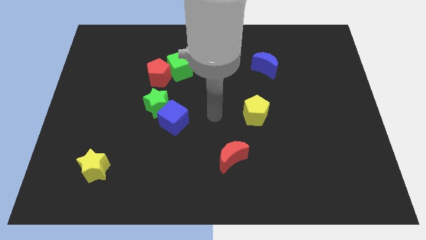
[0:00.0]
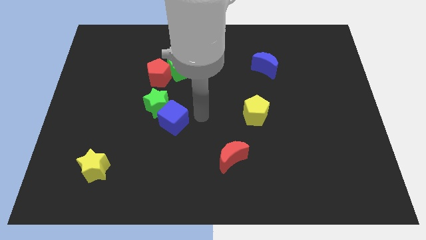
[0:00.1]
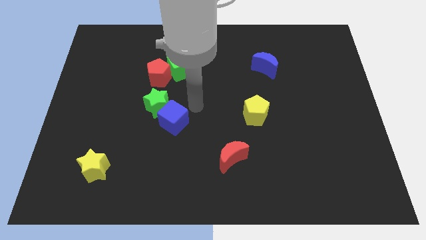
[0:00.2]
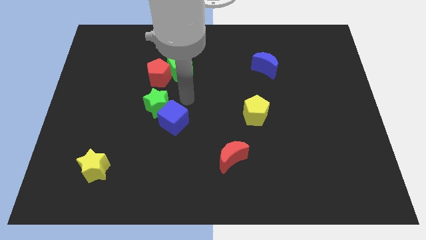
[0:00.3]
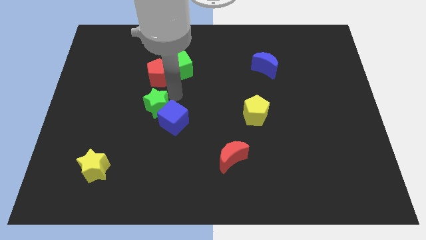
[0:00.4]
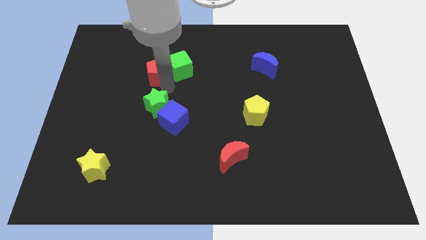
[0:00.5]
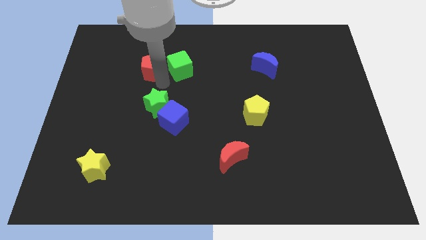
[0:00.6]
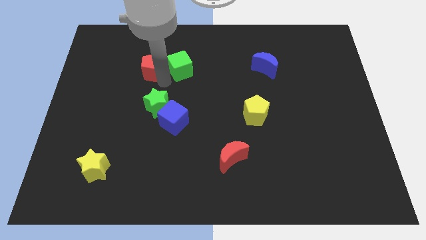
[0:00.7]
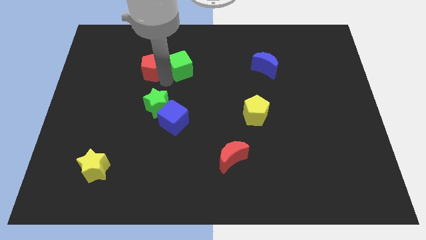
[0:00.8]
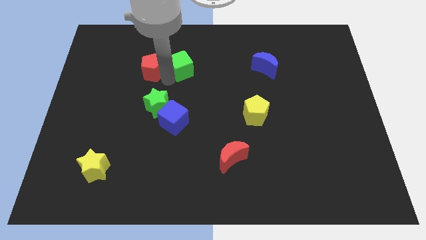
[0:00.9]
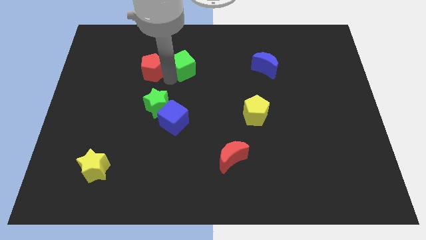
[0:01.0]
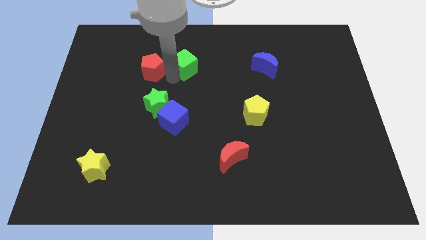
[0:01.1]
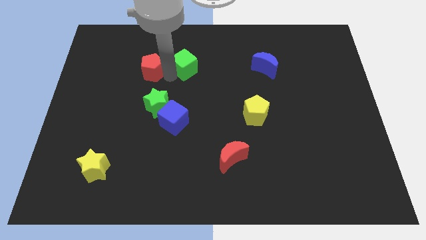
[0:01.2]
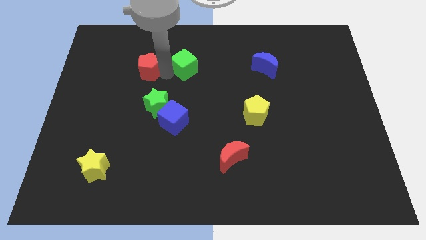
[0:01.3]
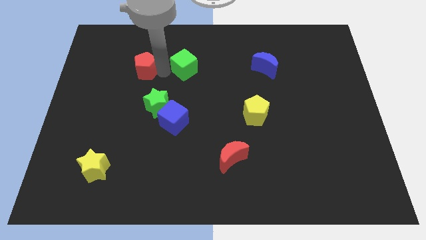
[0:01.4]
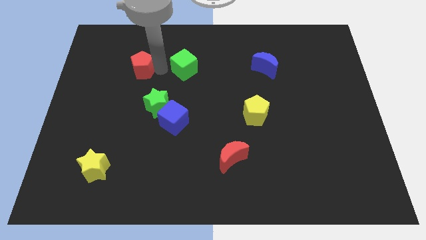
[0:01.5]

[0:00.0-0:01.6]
pull the green cube apart from the red pentagon

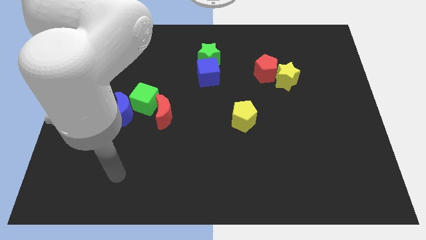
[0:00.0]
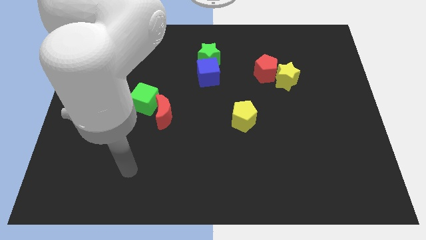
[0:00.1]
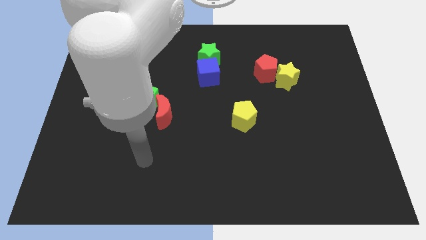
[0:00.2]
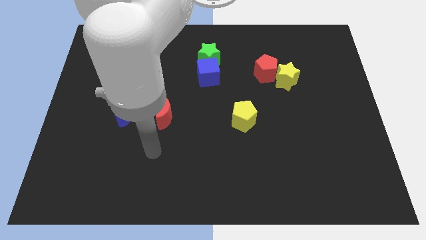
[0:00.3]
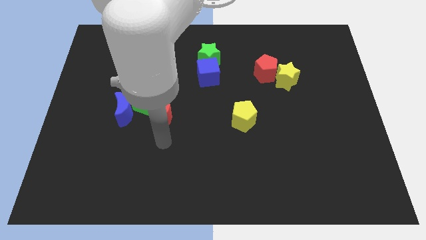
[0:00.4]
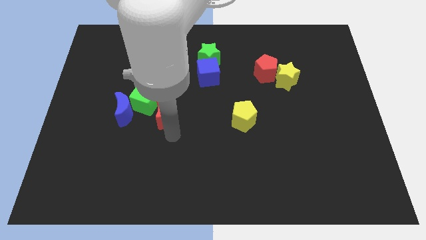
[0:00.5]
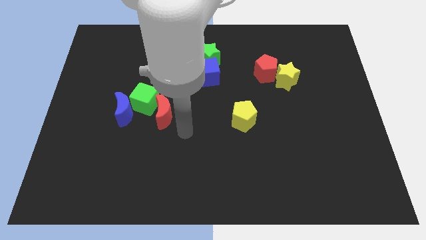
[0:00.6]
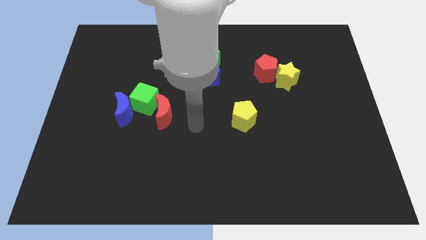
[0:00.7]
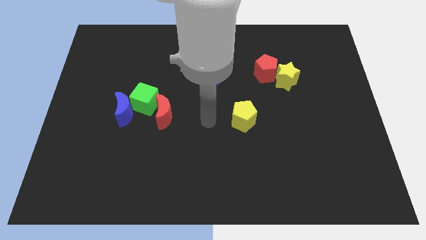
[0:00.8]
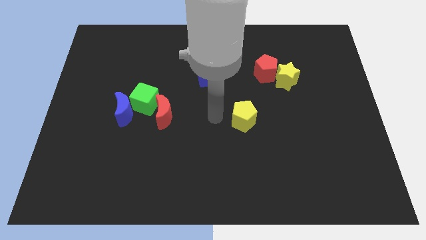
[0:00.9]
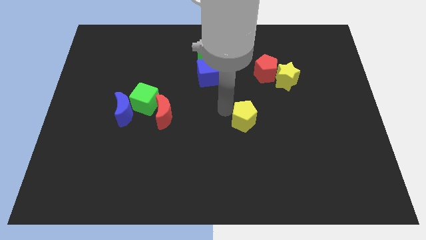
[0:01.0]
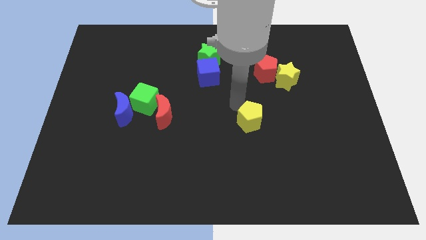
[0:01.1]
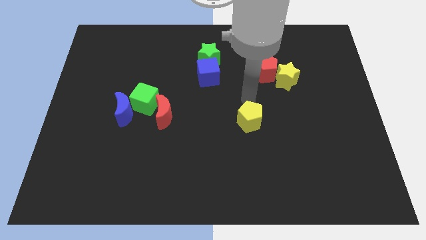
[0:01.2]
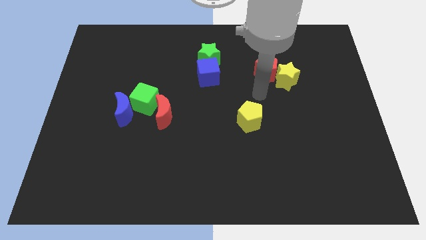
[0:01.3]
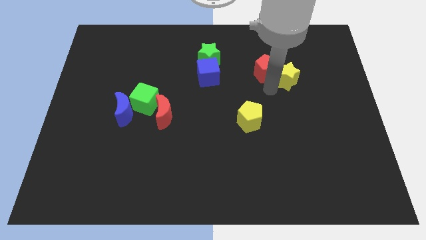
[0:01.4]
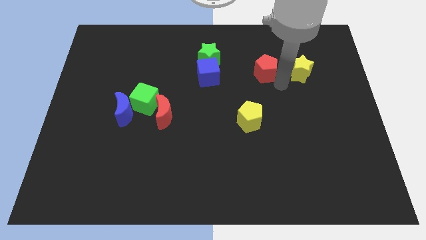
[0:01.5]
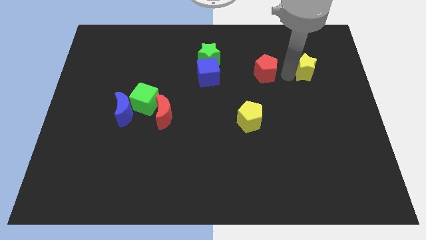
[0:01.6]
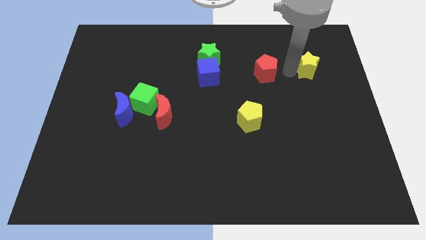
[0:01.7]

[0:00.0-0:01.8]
pull the red pentagon apart from the yellow star

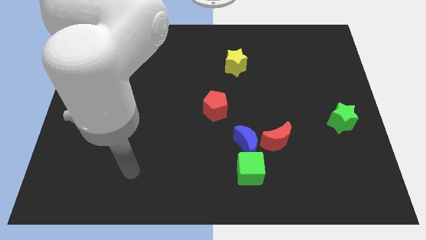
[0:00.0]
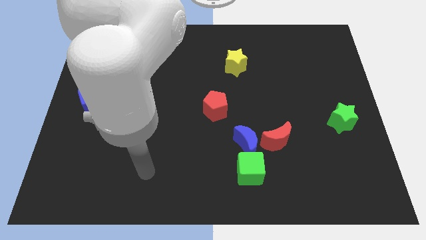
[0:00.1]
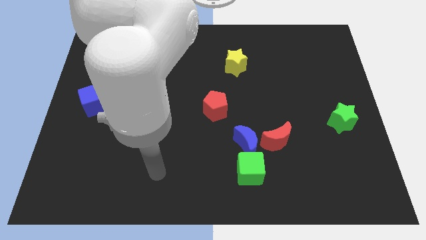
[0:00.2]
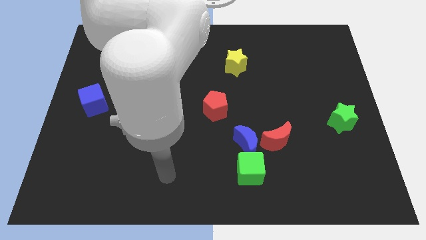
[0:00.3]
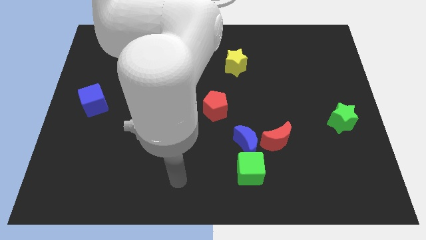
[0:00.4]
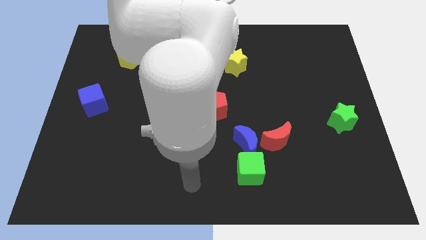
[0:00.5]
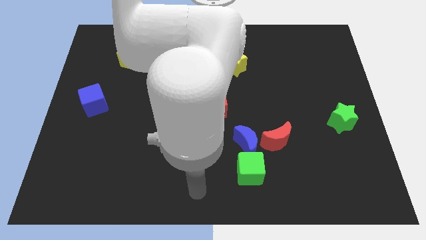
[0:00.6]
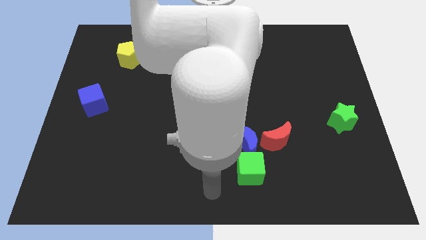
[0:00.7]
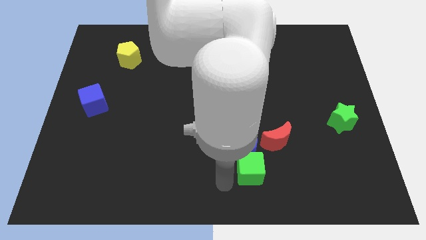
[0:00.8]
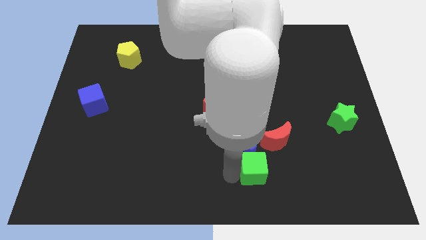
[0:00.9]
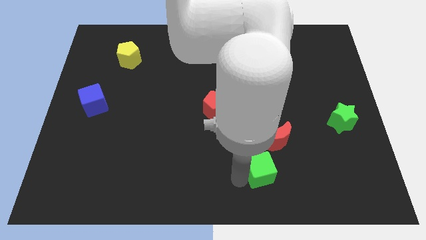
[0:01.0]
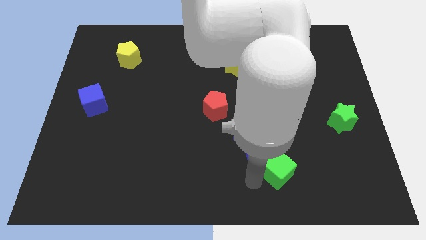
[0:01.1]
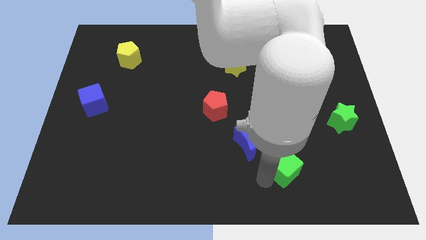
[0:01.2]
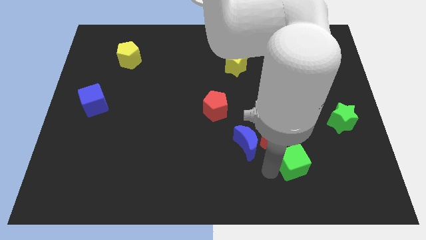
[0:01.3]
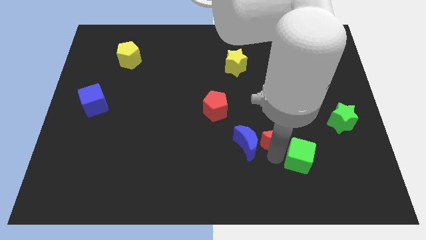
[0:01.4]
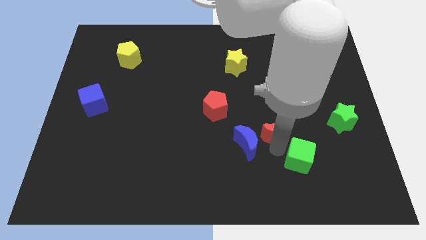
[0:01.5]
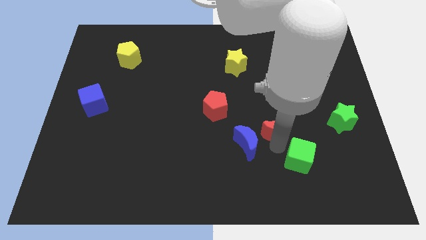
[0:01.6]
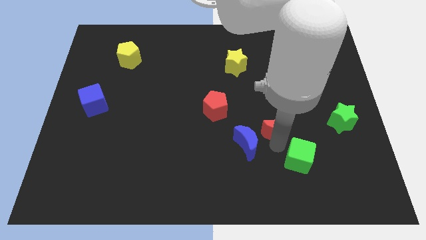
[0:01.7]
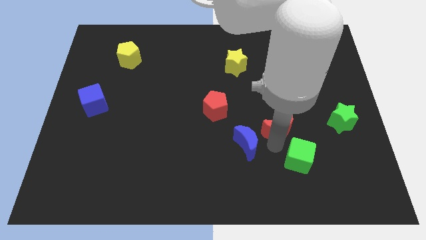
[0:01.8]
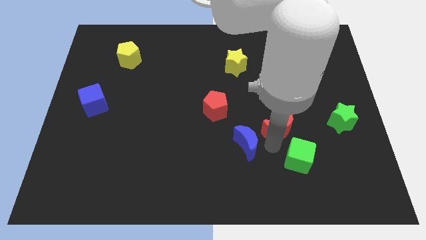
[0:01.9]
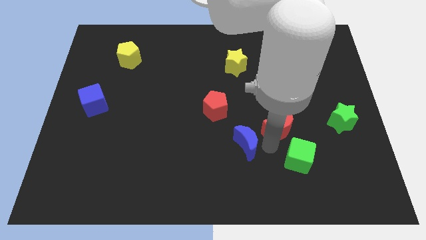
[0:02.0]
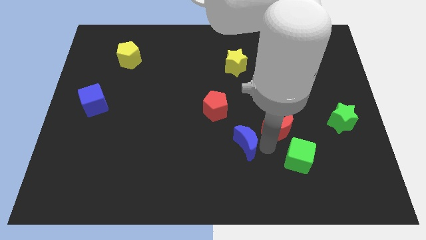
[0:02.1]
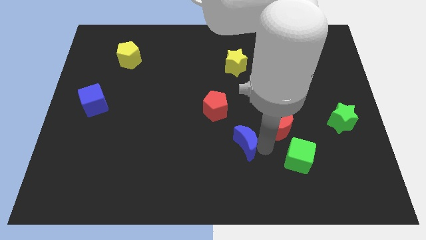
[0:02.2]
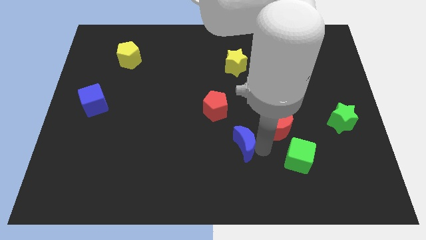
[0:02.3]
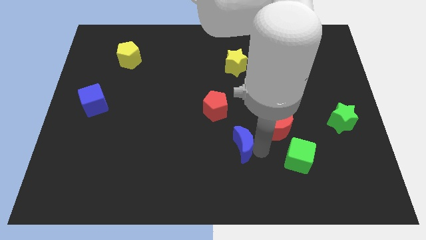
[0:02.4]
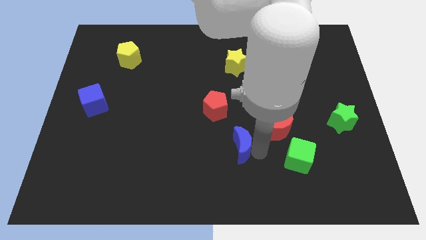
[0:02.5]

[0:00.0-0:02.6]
move the blue moon away from the green cube and red moon

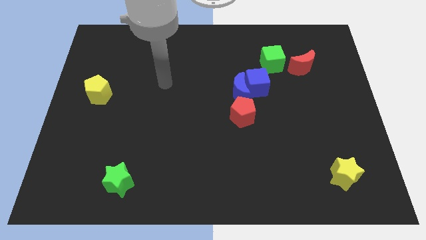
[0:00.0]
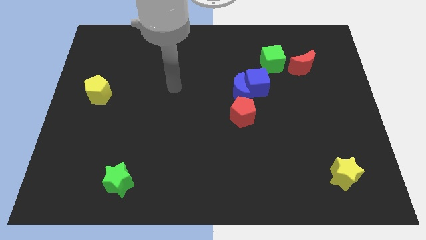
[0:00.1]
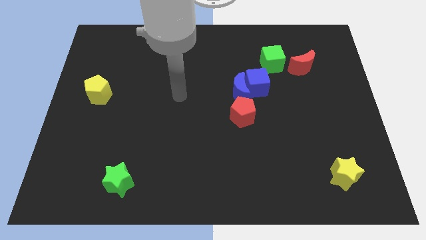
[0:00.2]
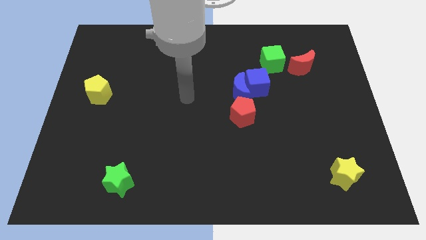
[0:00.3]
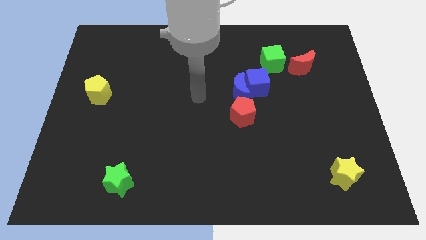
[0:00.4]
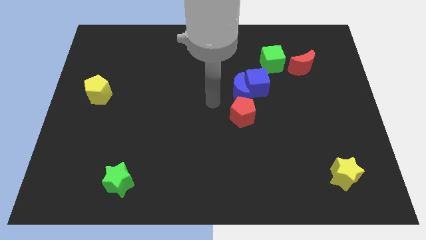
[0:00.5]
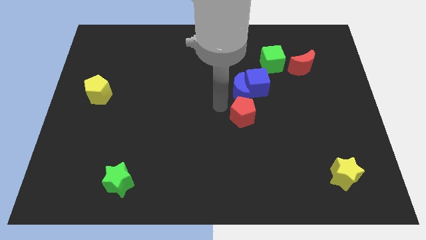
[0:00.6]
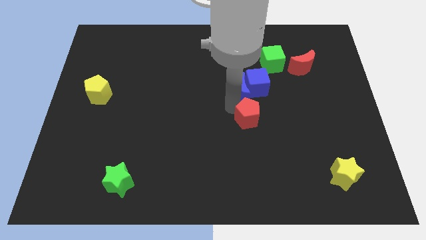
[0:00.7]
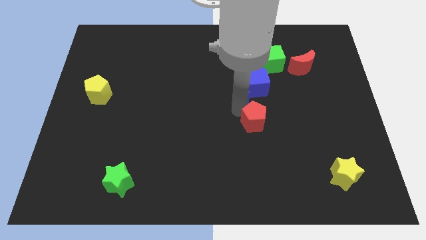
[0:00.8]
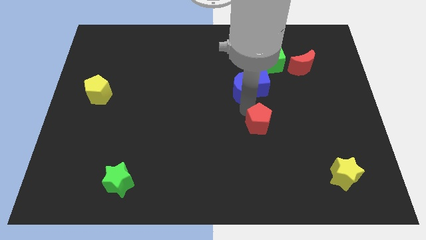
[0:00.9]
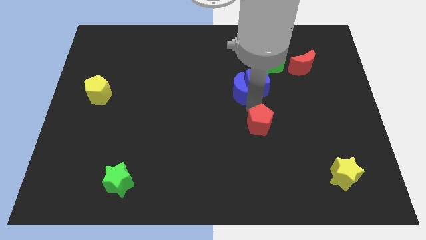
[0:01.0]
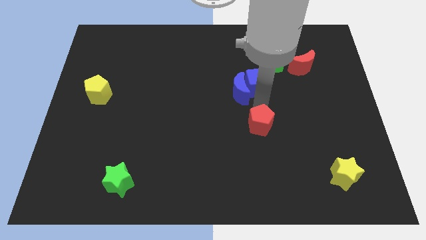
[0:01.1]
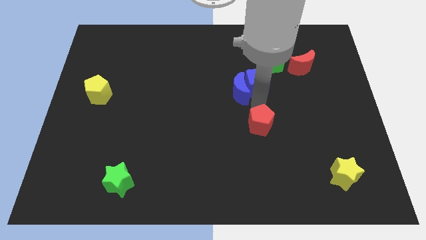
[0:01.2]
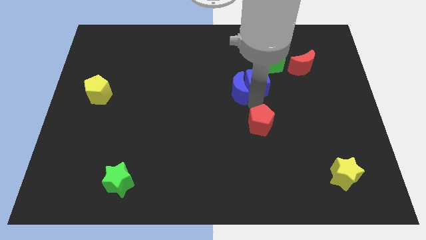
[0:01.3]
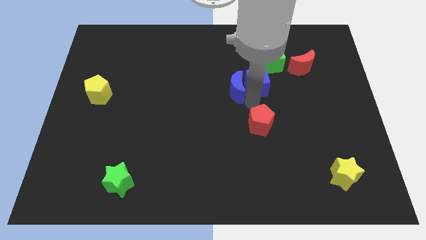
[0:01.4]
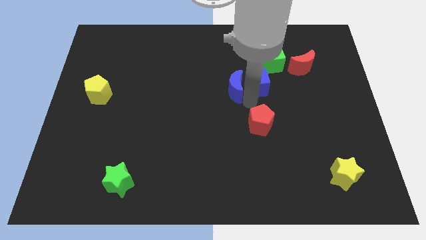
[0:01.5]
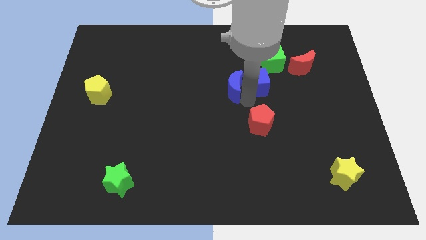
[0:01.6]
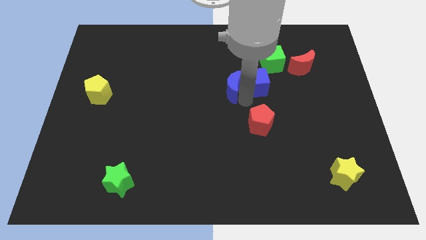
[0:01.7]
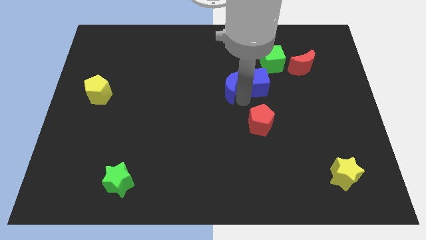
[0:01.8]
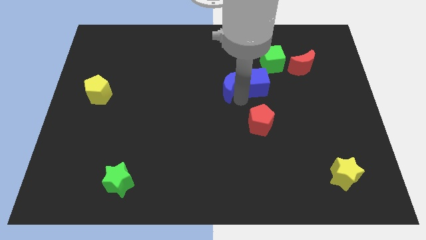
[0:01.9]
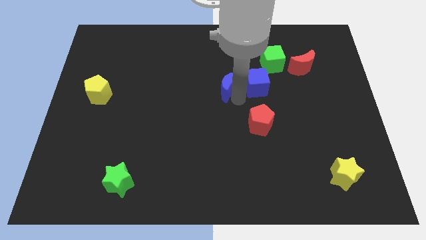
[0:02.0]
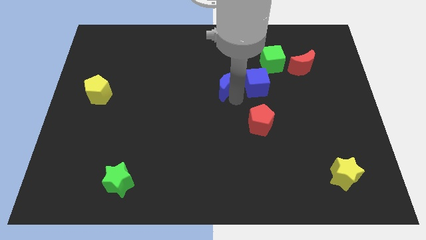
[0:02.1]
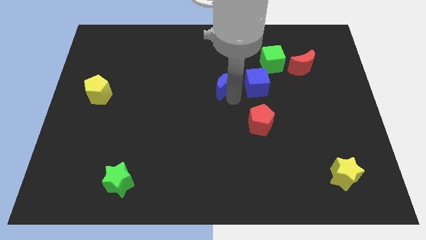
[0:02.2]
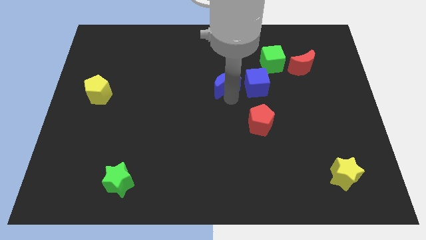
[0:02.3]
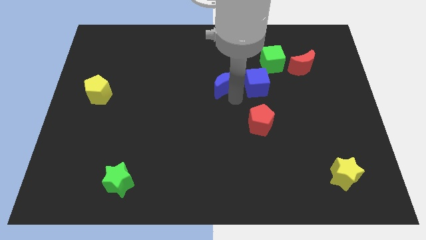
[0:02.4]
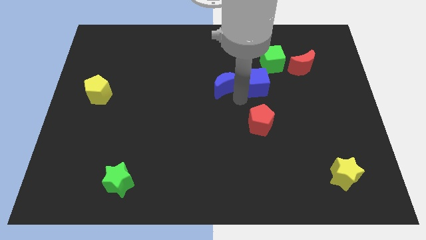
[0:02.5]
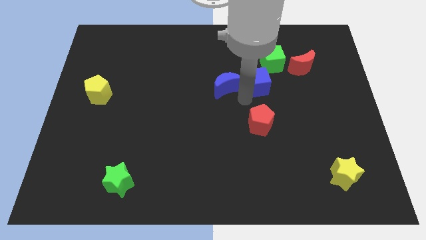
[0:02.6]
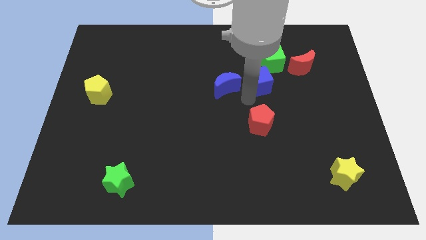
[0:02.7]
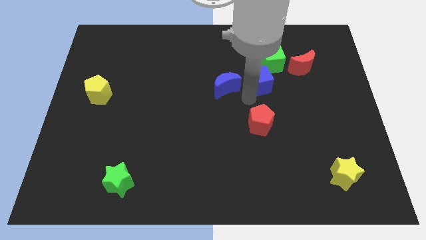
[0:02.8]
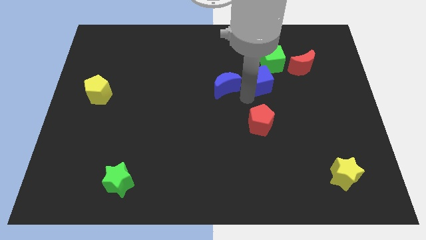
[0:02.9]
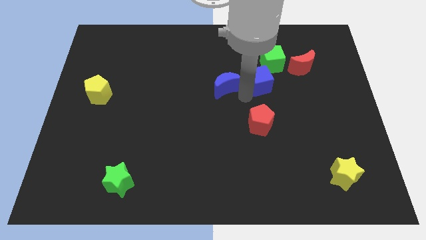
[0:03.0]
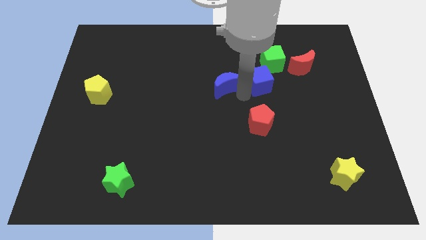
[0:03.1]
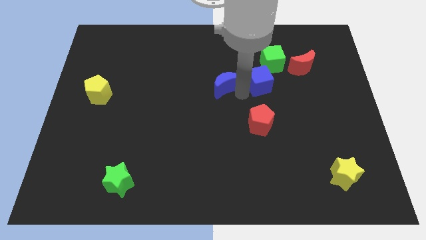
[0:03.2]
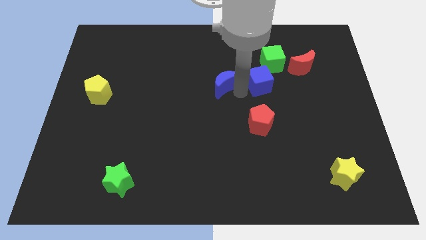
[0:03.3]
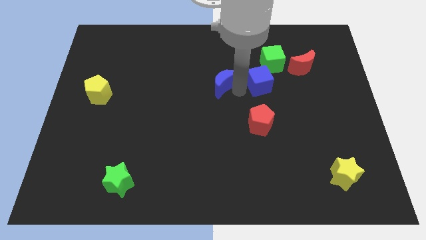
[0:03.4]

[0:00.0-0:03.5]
separate the blue moon from the blue cube and red pentagon
